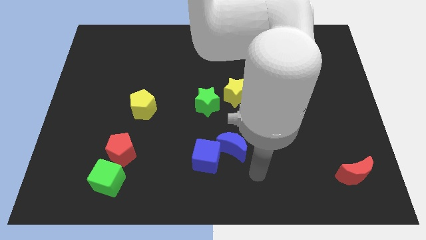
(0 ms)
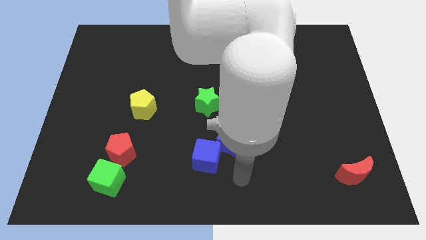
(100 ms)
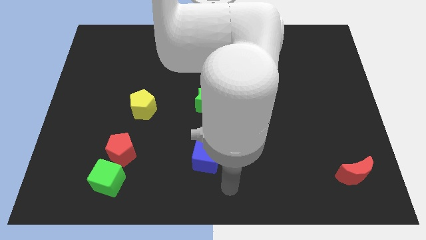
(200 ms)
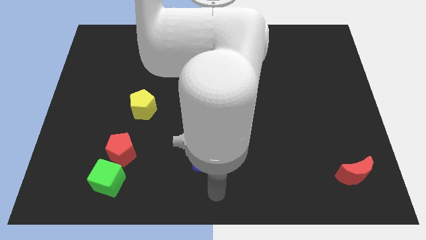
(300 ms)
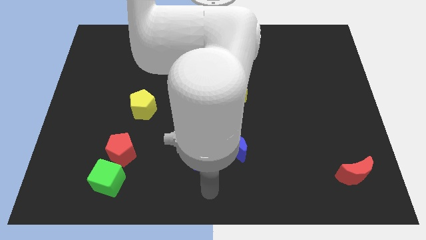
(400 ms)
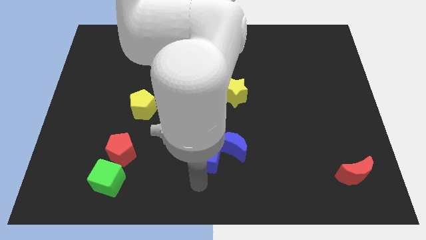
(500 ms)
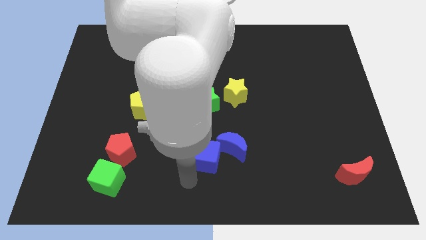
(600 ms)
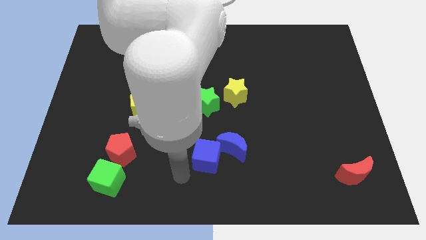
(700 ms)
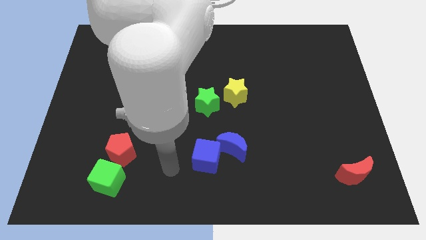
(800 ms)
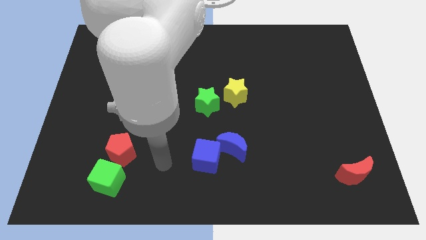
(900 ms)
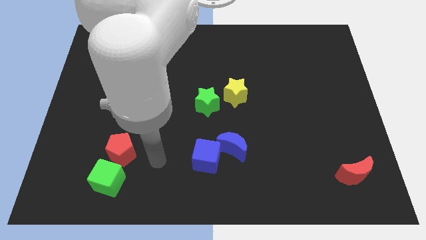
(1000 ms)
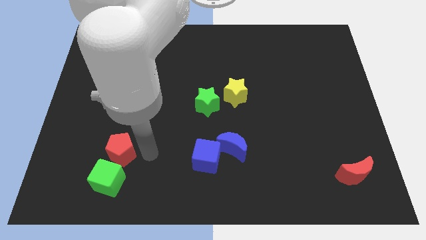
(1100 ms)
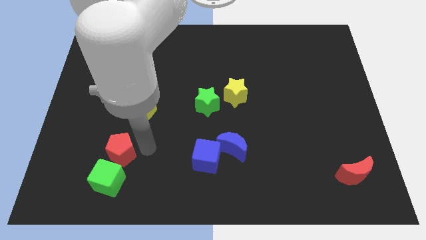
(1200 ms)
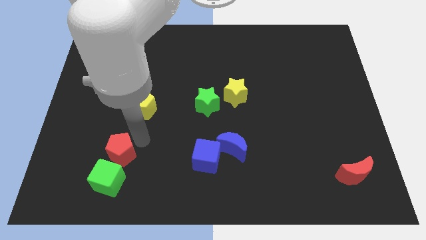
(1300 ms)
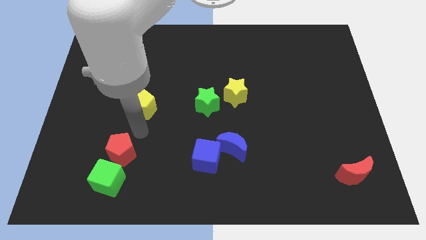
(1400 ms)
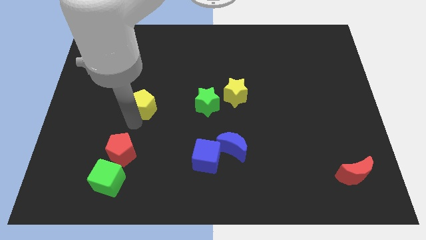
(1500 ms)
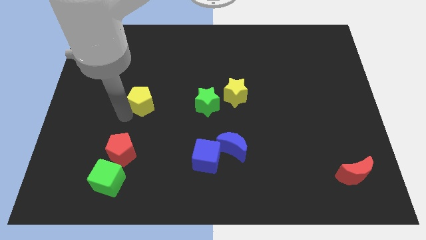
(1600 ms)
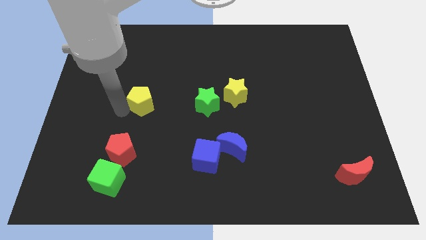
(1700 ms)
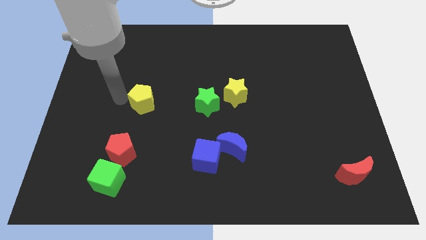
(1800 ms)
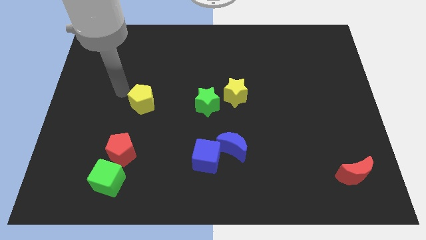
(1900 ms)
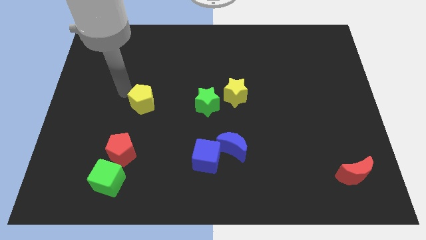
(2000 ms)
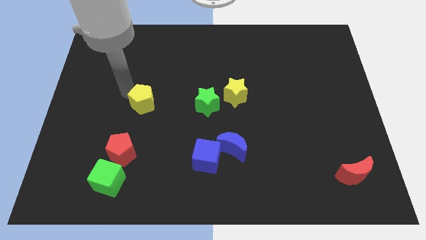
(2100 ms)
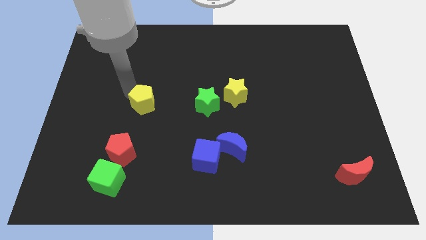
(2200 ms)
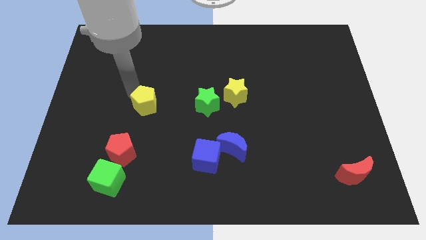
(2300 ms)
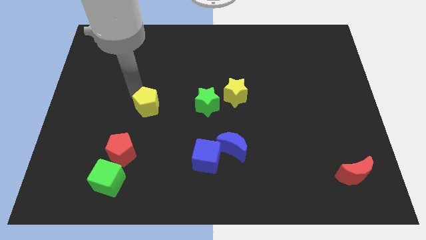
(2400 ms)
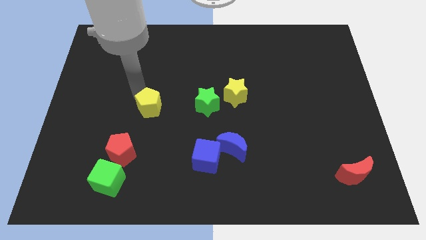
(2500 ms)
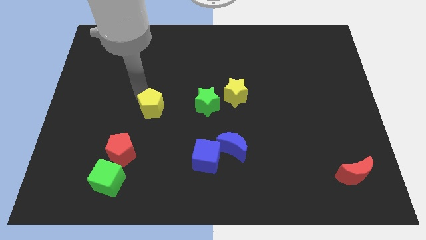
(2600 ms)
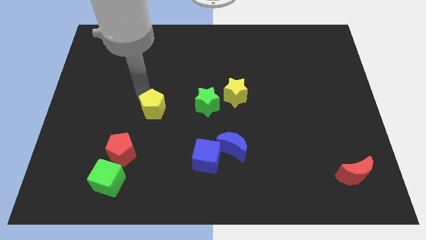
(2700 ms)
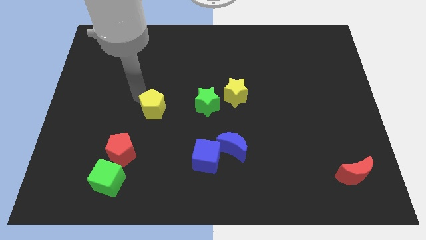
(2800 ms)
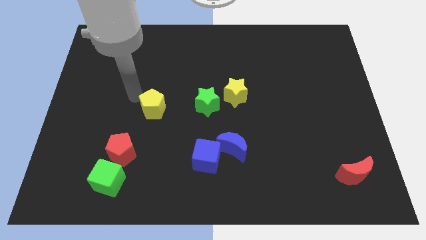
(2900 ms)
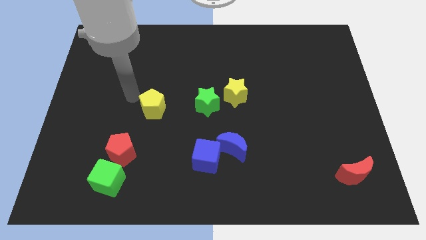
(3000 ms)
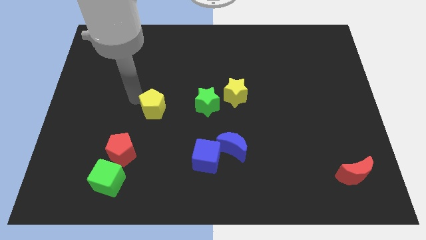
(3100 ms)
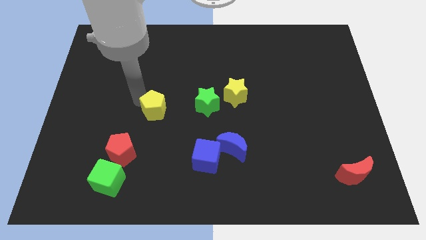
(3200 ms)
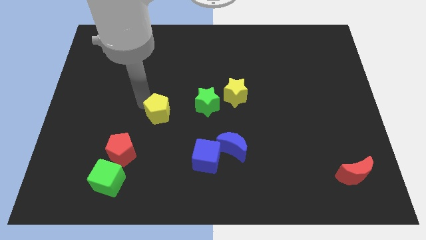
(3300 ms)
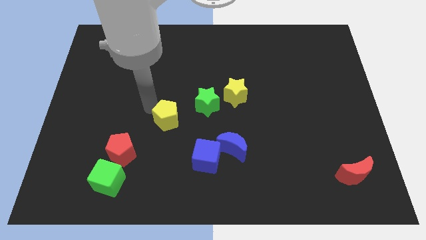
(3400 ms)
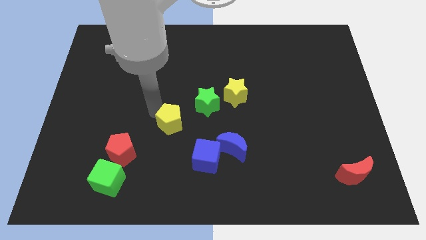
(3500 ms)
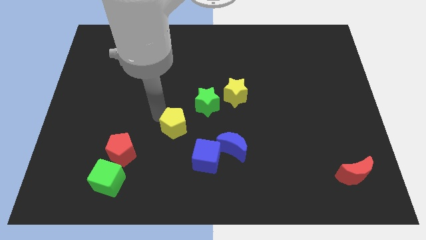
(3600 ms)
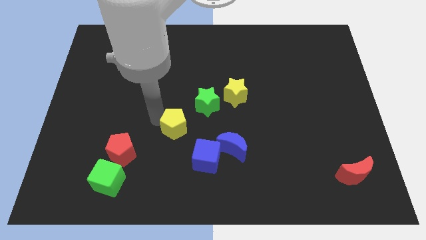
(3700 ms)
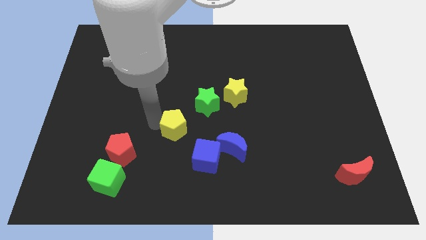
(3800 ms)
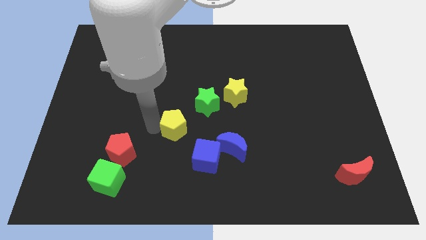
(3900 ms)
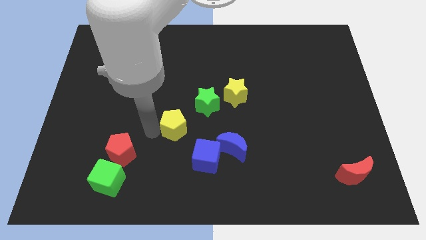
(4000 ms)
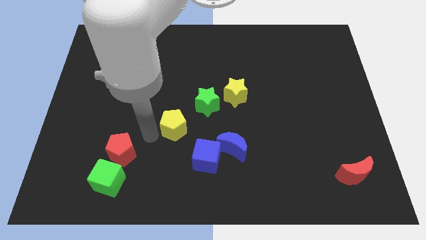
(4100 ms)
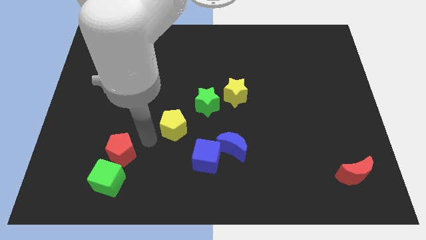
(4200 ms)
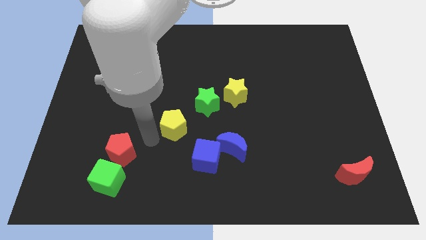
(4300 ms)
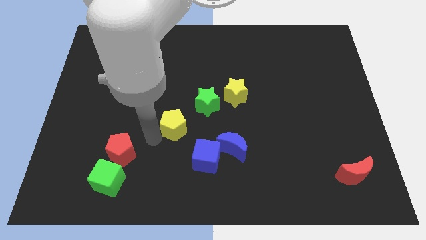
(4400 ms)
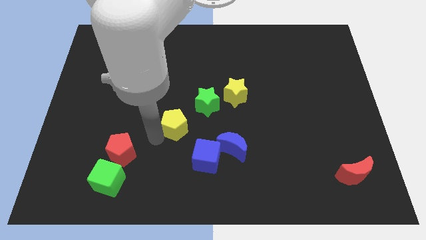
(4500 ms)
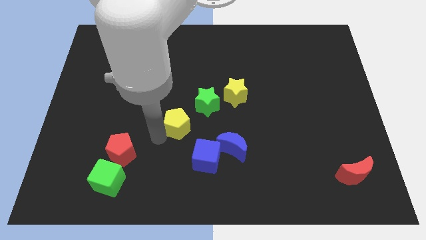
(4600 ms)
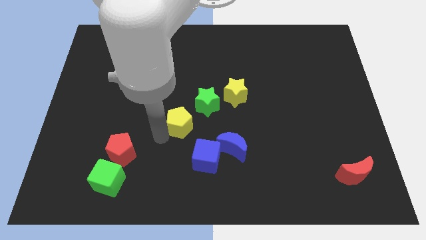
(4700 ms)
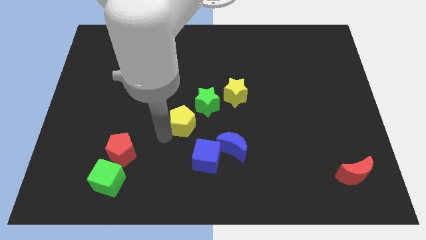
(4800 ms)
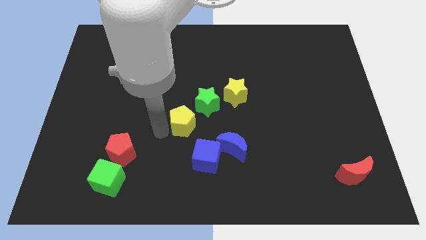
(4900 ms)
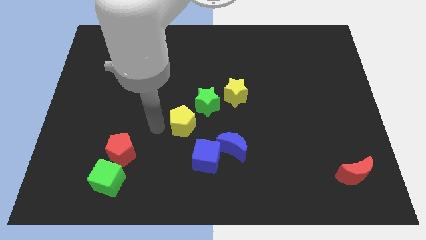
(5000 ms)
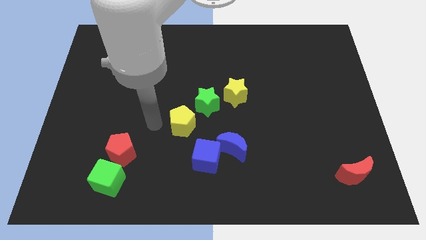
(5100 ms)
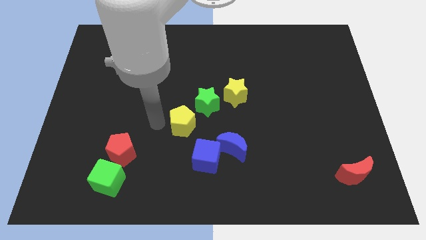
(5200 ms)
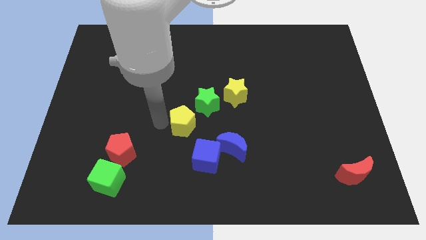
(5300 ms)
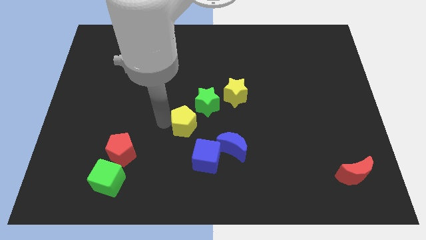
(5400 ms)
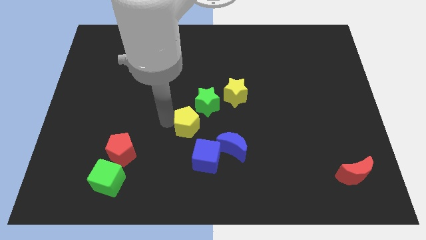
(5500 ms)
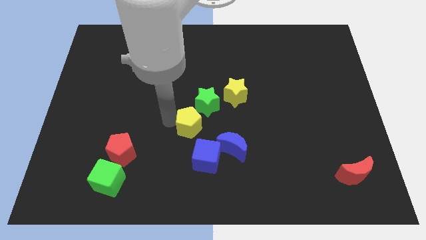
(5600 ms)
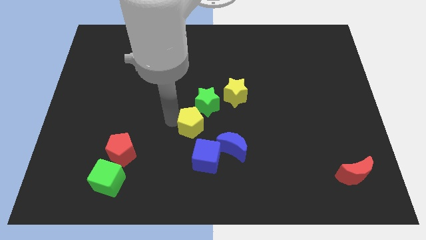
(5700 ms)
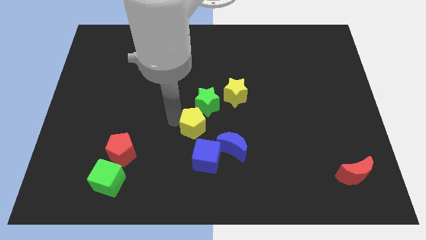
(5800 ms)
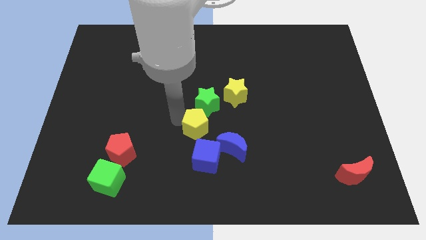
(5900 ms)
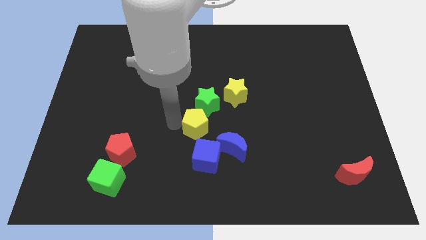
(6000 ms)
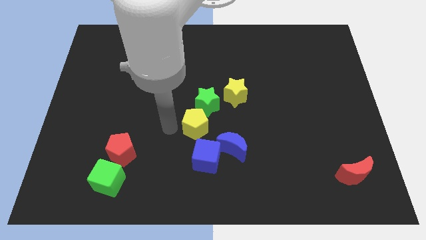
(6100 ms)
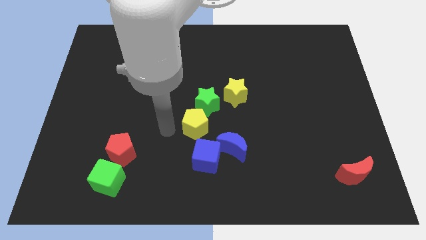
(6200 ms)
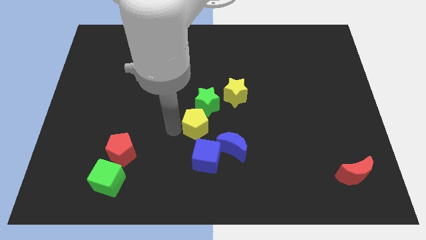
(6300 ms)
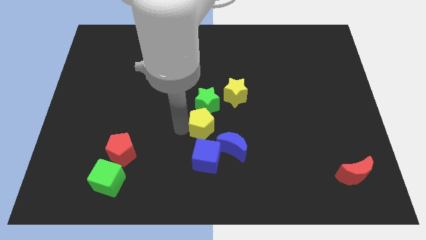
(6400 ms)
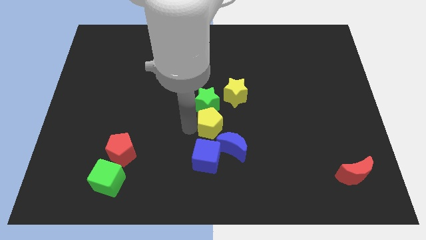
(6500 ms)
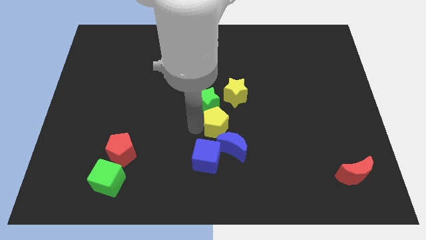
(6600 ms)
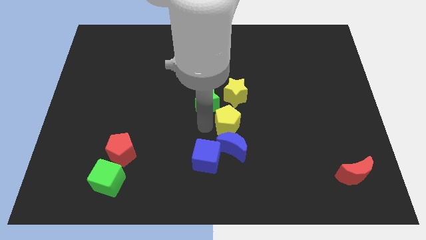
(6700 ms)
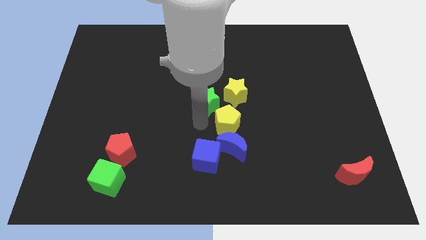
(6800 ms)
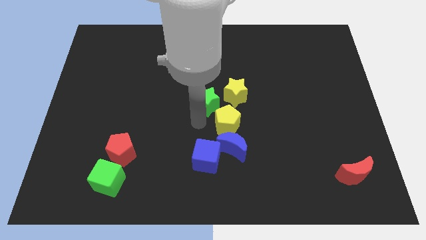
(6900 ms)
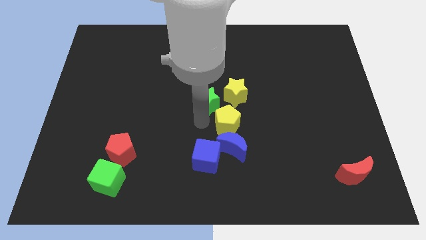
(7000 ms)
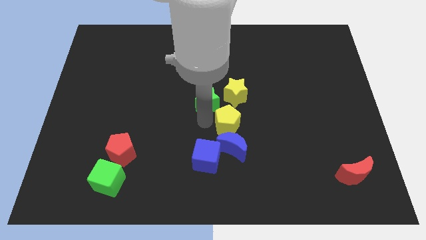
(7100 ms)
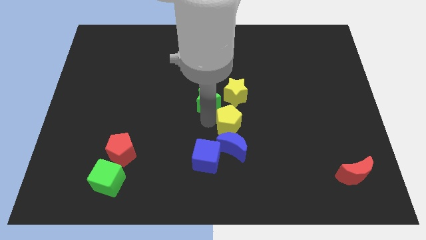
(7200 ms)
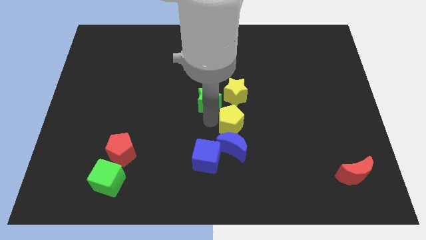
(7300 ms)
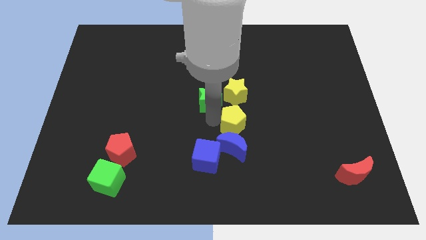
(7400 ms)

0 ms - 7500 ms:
move the yellow pentagon right

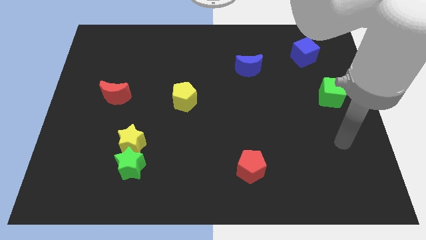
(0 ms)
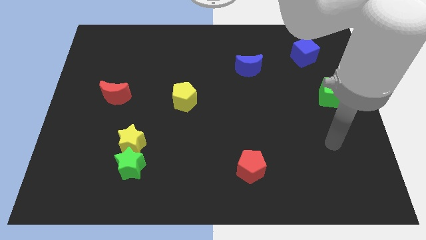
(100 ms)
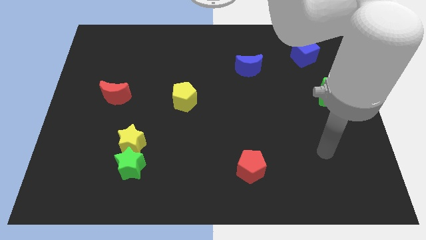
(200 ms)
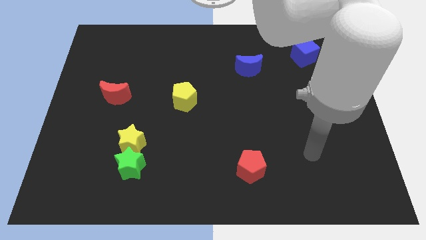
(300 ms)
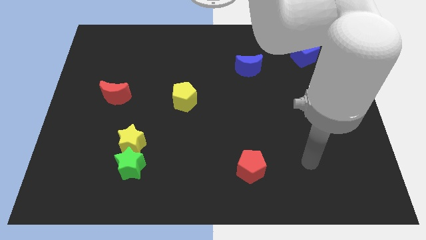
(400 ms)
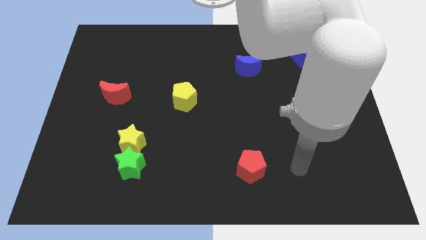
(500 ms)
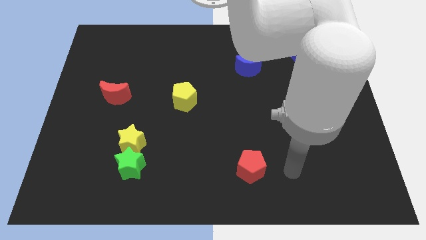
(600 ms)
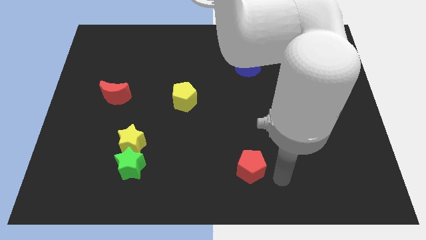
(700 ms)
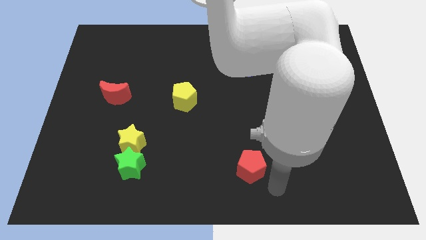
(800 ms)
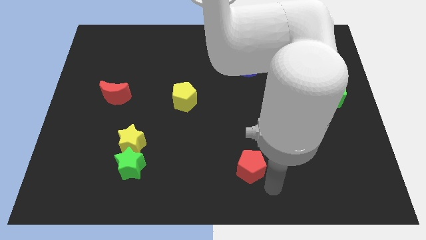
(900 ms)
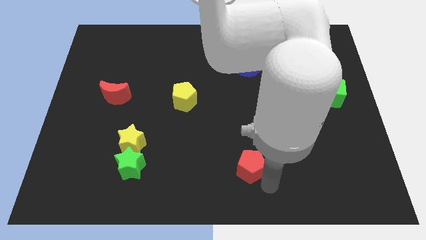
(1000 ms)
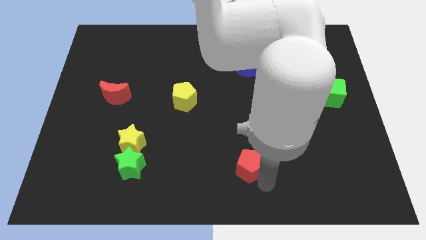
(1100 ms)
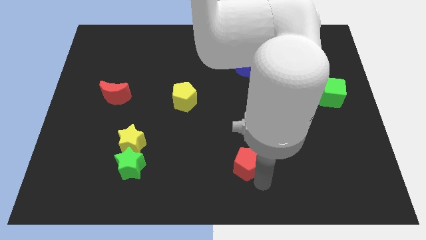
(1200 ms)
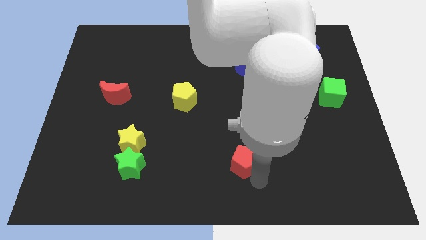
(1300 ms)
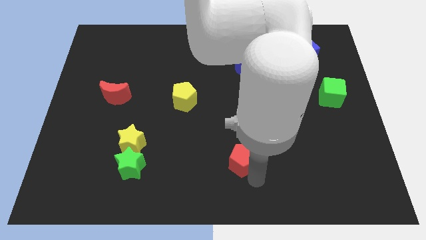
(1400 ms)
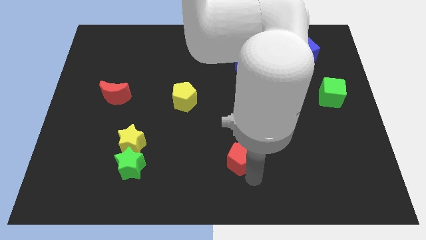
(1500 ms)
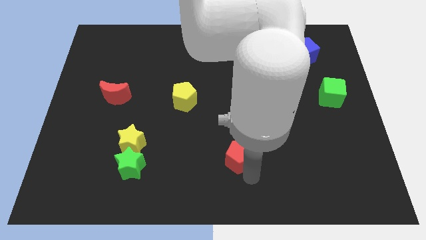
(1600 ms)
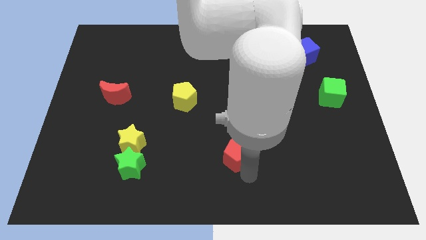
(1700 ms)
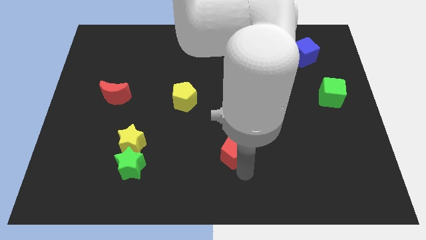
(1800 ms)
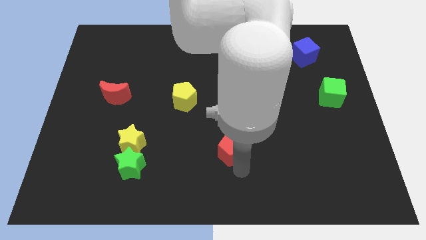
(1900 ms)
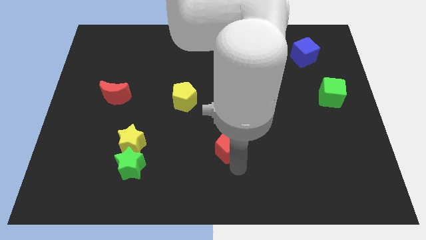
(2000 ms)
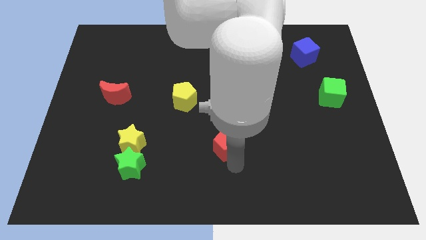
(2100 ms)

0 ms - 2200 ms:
move the red pentagon diagonally upwards and to the left slightly
